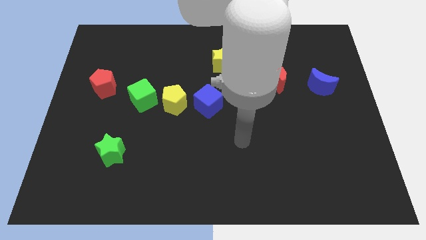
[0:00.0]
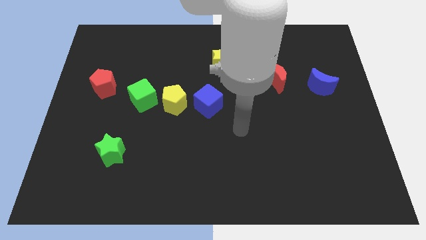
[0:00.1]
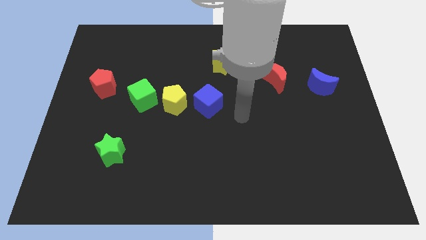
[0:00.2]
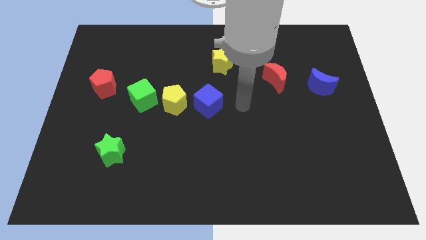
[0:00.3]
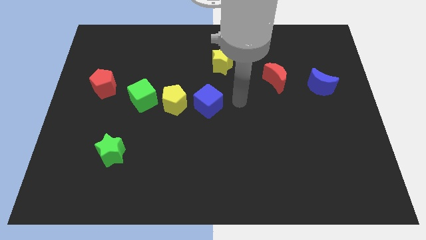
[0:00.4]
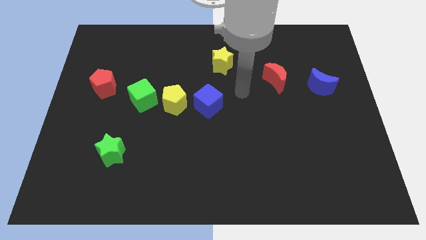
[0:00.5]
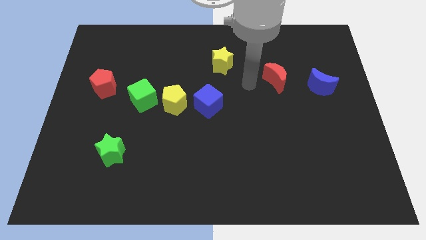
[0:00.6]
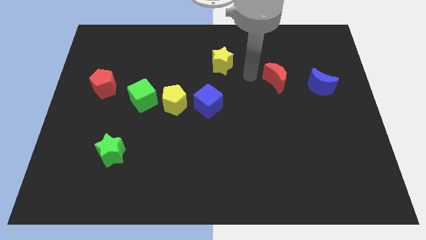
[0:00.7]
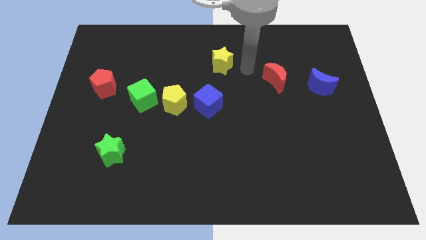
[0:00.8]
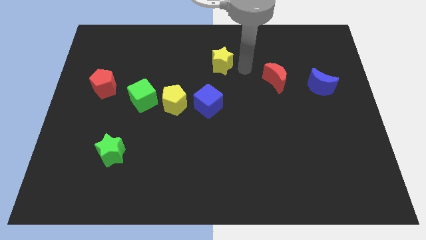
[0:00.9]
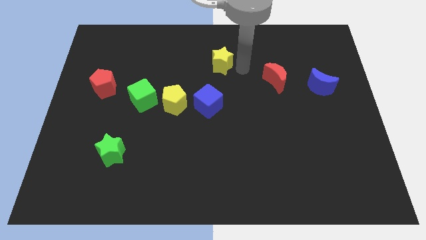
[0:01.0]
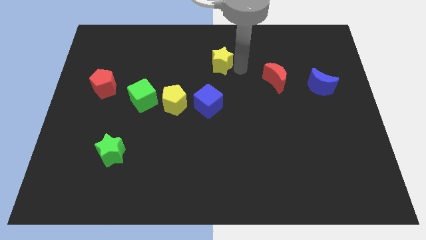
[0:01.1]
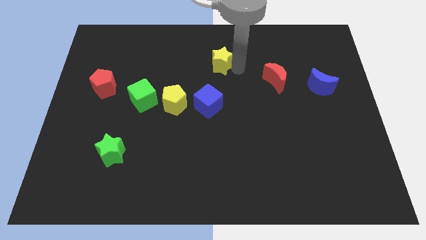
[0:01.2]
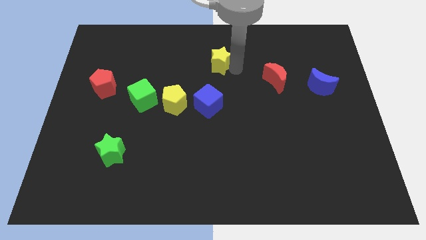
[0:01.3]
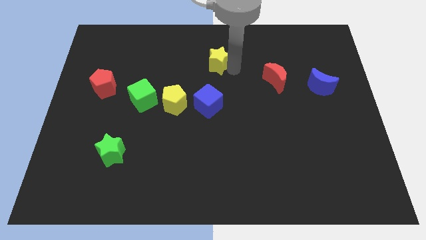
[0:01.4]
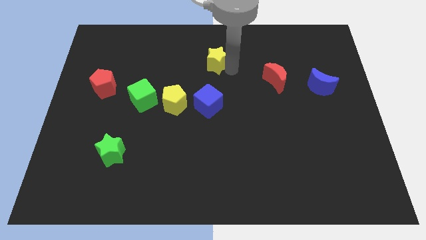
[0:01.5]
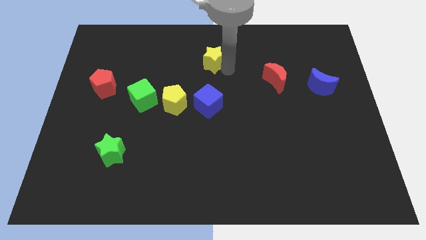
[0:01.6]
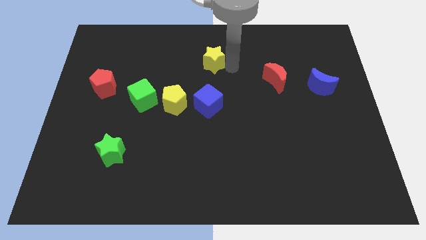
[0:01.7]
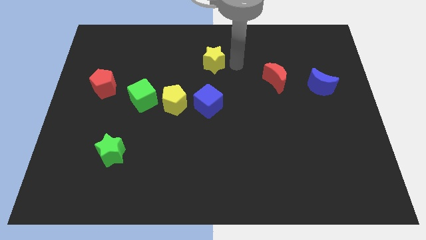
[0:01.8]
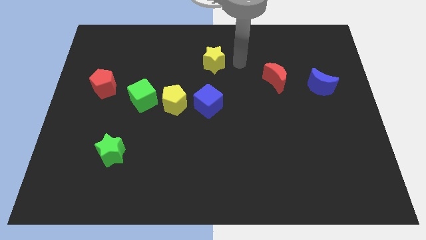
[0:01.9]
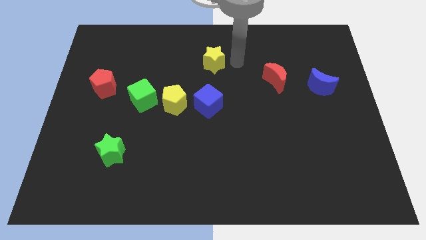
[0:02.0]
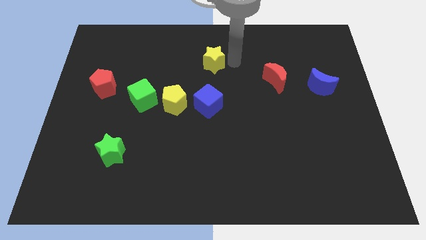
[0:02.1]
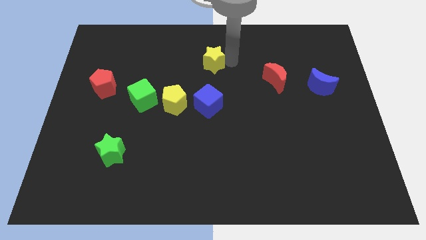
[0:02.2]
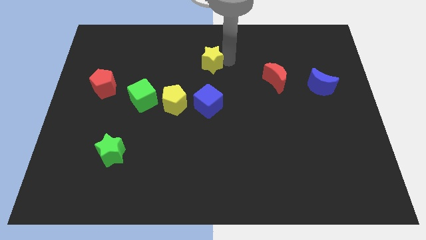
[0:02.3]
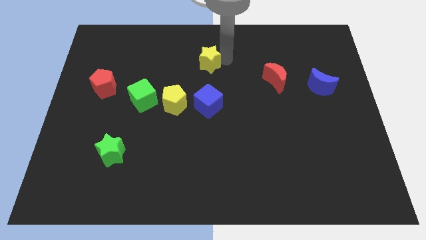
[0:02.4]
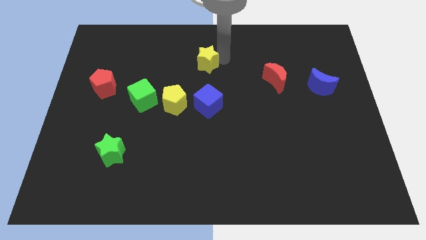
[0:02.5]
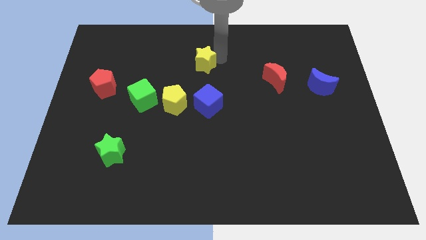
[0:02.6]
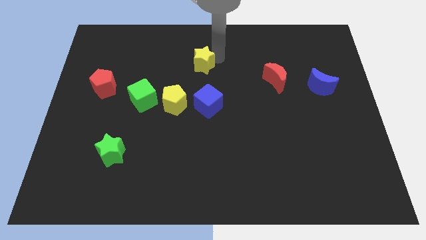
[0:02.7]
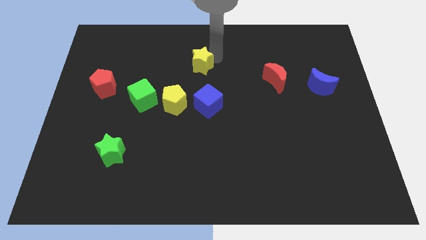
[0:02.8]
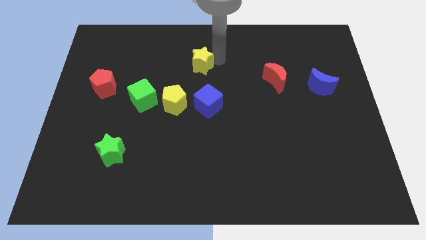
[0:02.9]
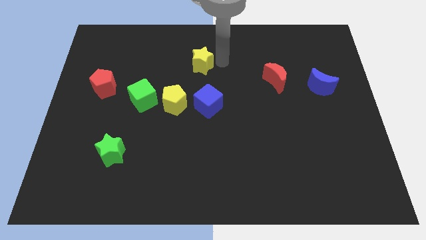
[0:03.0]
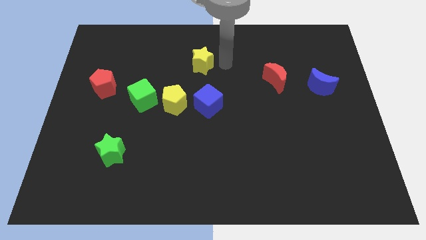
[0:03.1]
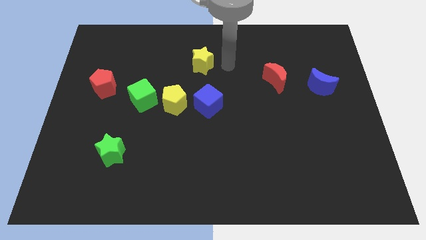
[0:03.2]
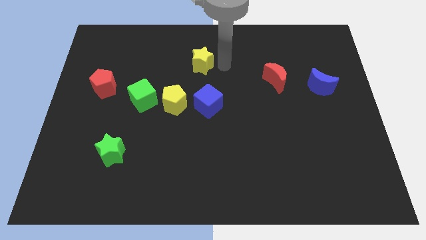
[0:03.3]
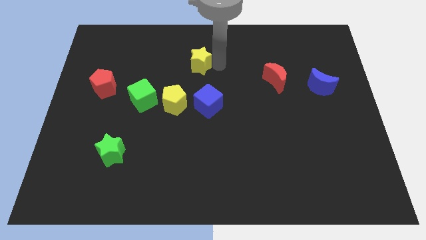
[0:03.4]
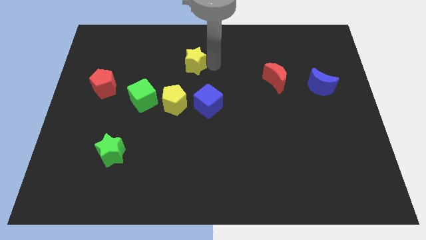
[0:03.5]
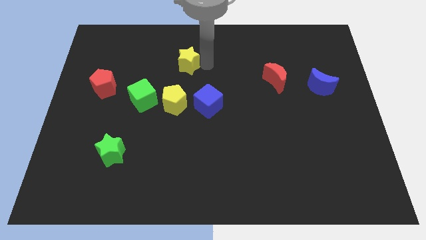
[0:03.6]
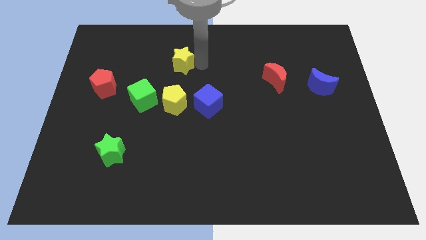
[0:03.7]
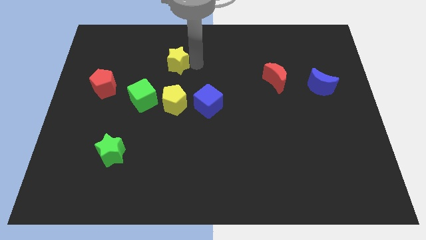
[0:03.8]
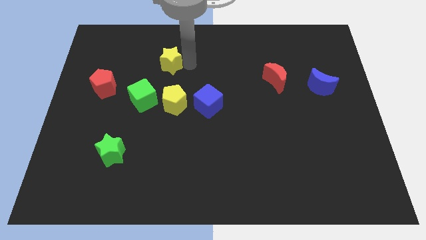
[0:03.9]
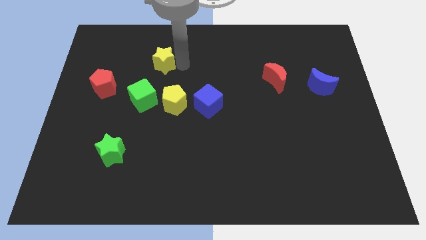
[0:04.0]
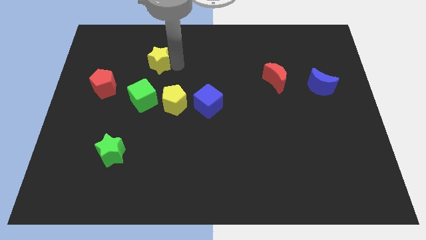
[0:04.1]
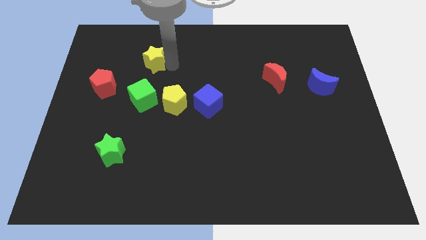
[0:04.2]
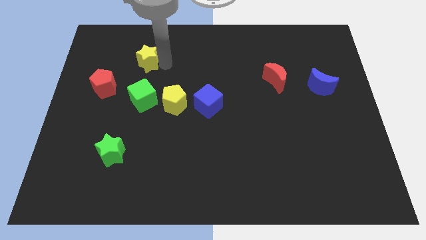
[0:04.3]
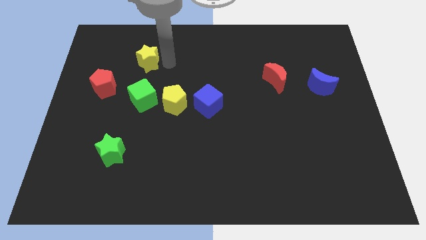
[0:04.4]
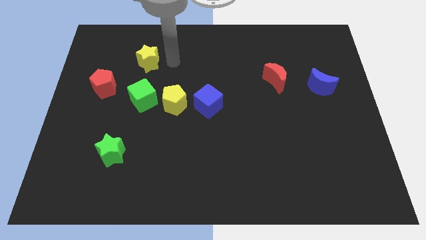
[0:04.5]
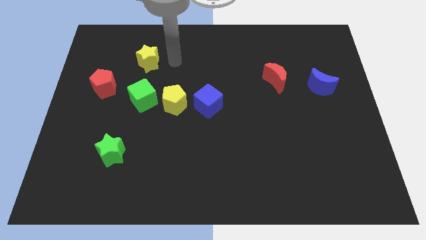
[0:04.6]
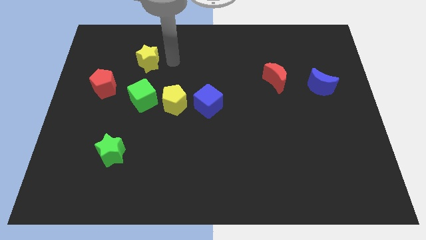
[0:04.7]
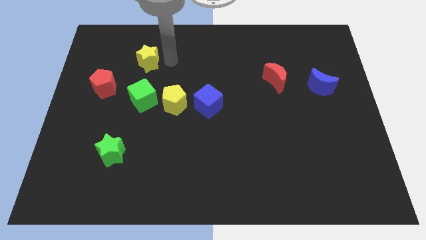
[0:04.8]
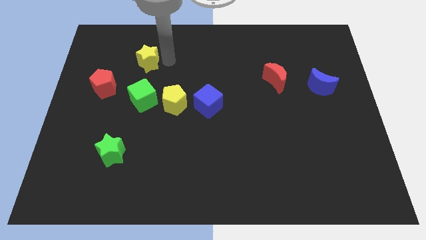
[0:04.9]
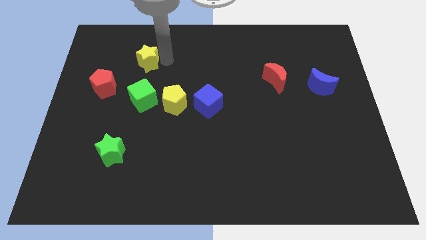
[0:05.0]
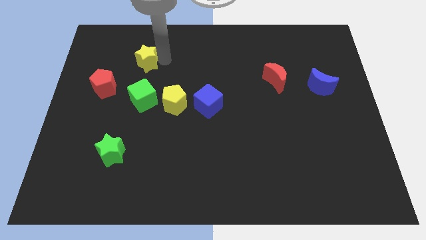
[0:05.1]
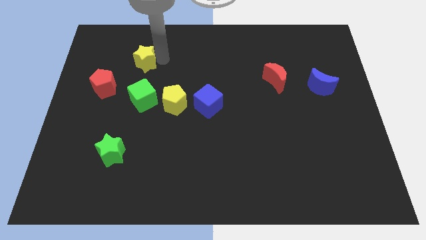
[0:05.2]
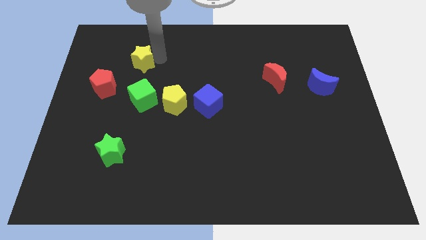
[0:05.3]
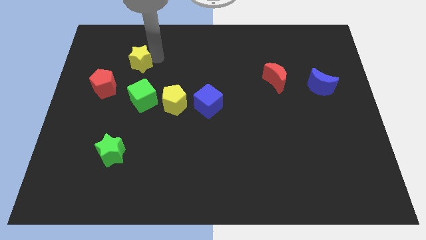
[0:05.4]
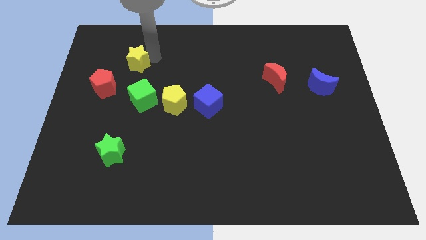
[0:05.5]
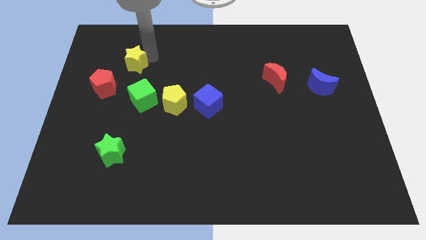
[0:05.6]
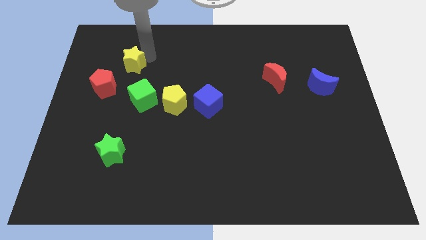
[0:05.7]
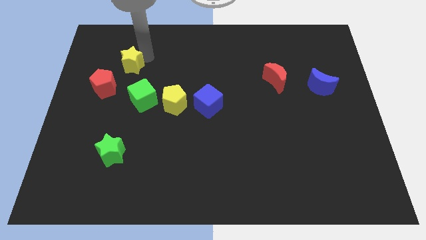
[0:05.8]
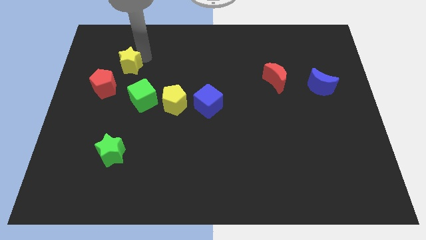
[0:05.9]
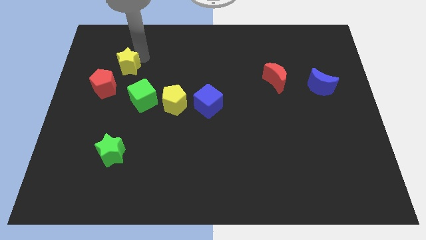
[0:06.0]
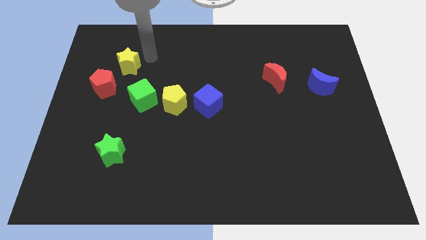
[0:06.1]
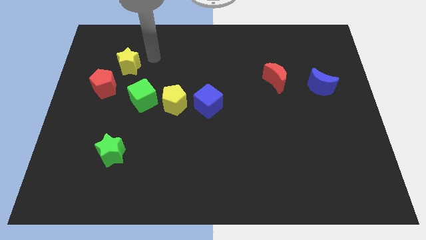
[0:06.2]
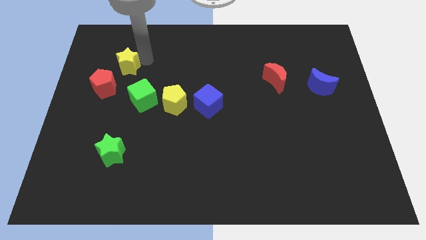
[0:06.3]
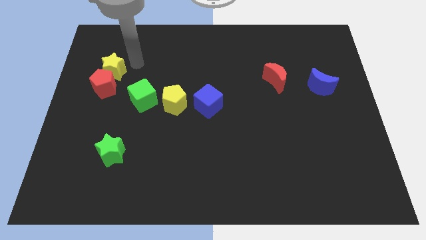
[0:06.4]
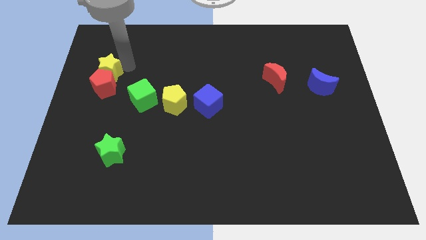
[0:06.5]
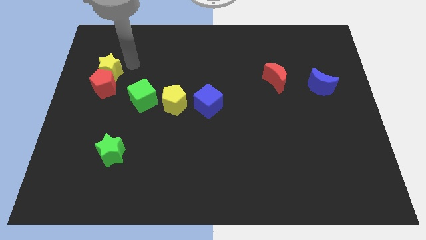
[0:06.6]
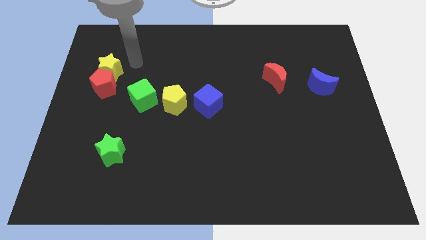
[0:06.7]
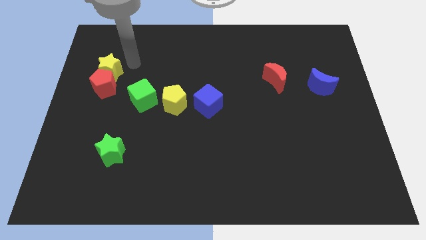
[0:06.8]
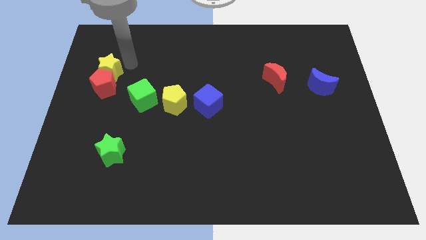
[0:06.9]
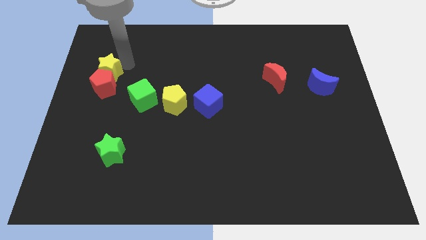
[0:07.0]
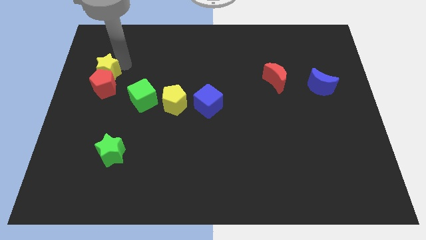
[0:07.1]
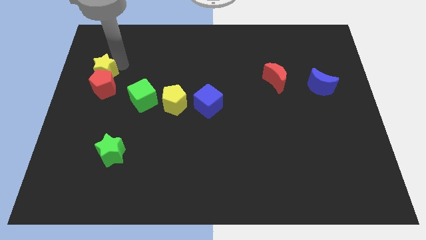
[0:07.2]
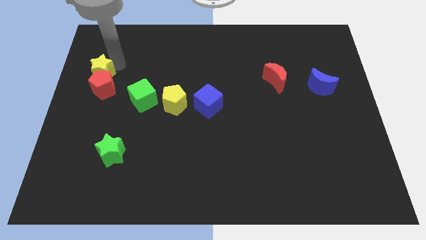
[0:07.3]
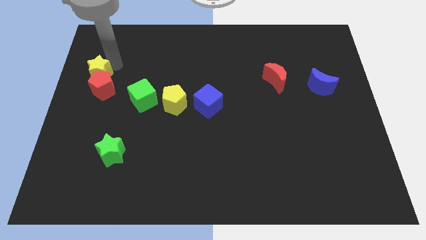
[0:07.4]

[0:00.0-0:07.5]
put the yellow star to the left side of the board
